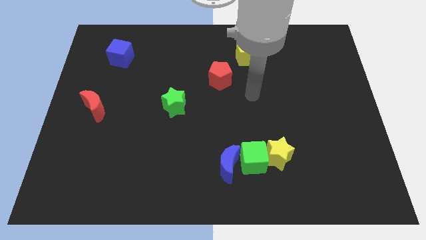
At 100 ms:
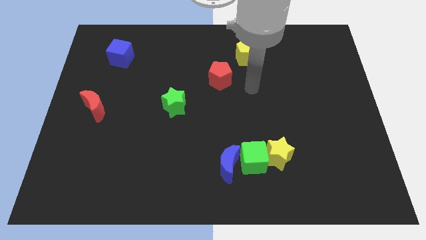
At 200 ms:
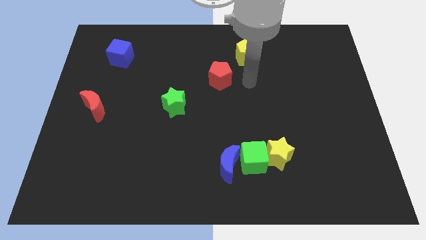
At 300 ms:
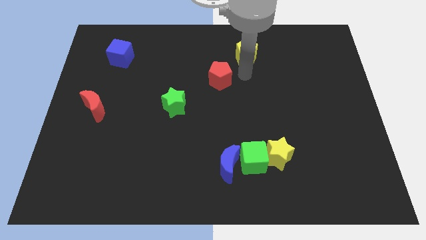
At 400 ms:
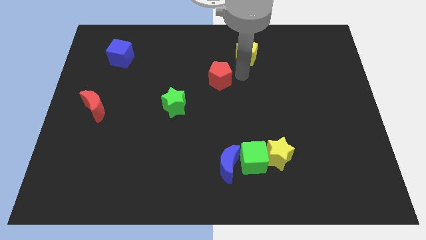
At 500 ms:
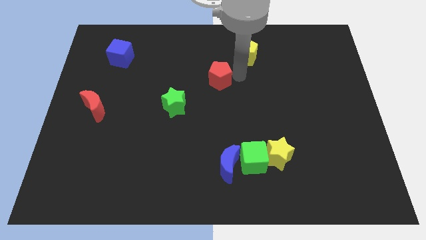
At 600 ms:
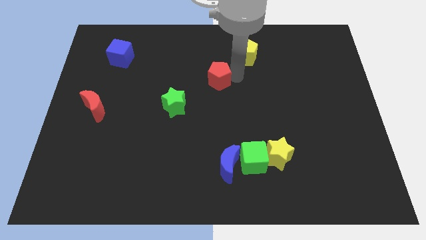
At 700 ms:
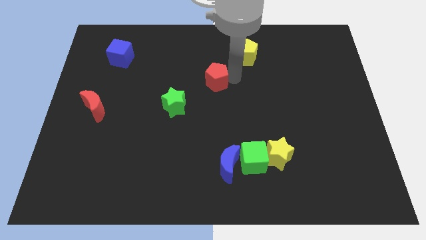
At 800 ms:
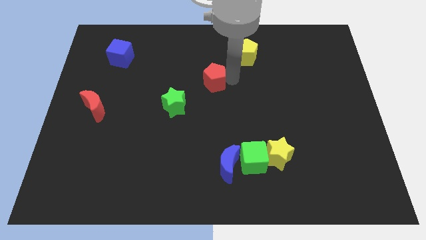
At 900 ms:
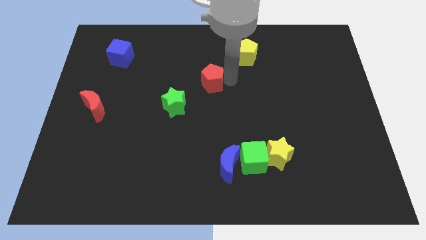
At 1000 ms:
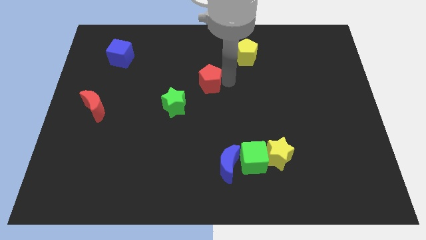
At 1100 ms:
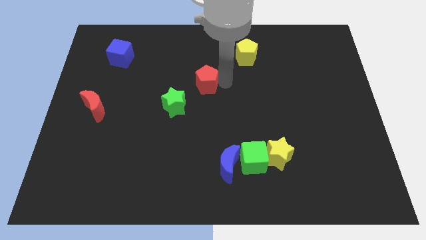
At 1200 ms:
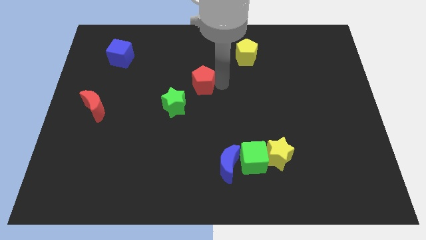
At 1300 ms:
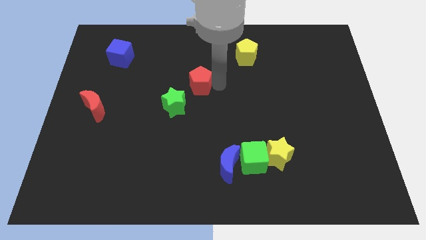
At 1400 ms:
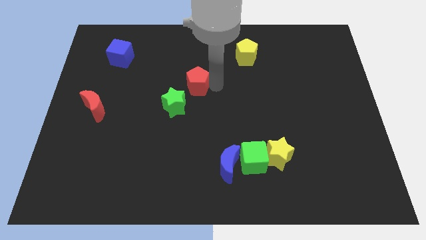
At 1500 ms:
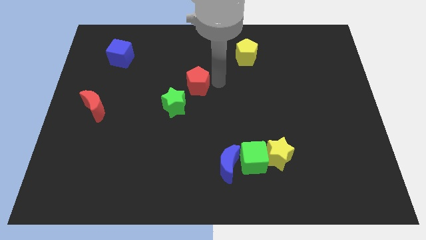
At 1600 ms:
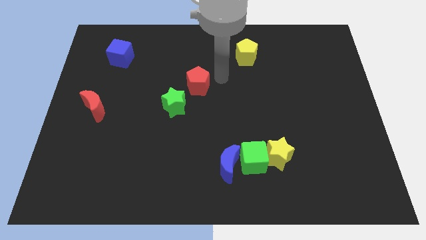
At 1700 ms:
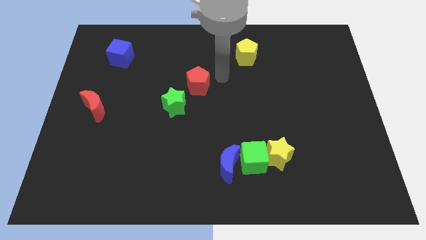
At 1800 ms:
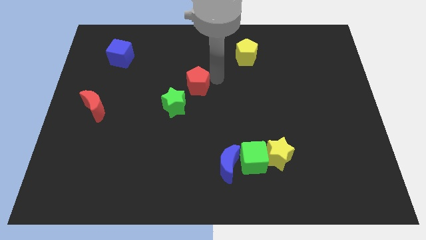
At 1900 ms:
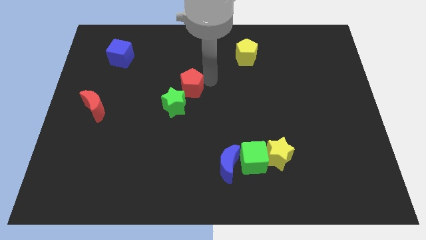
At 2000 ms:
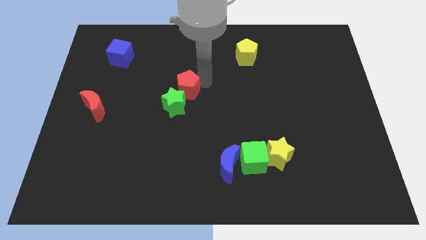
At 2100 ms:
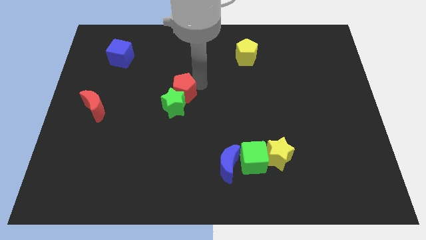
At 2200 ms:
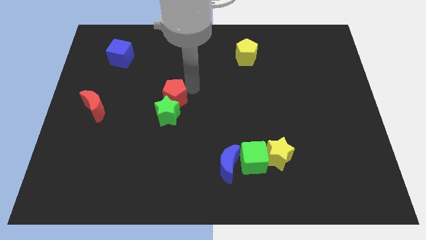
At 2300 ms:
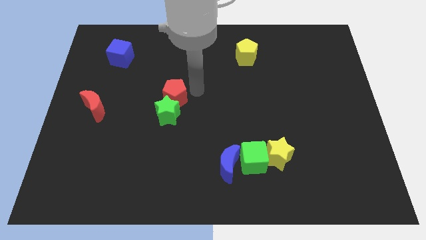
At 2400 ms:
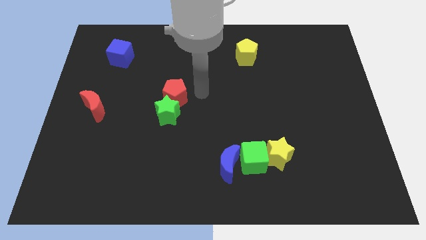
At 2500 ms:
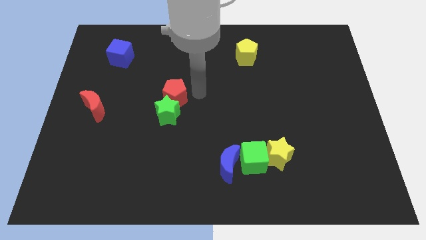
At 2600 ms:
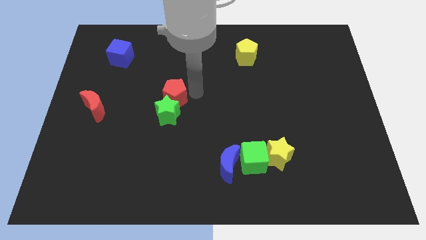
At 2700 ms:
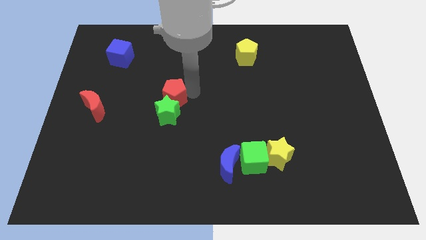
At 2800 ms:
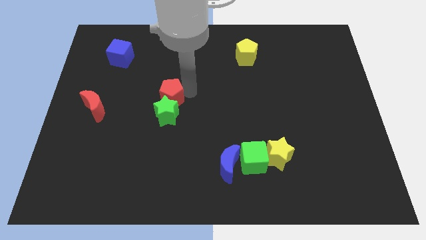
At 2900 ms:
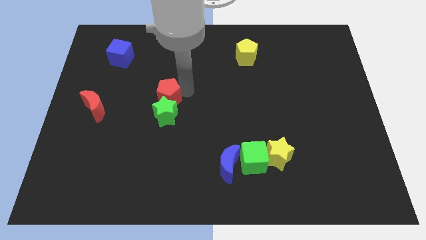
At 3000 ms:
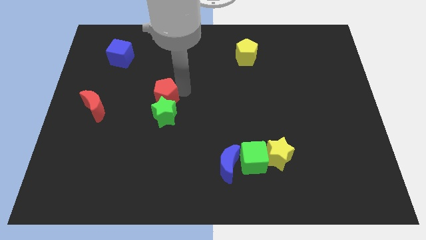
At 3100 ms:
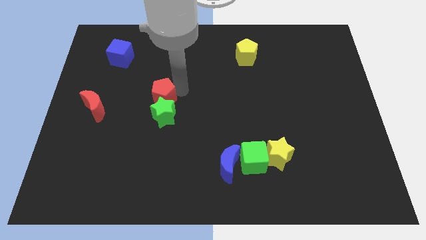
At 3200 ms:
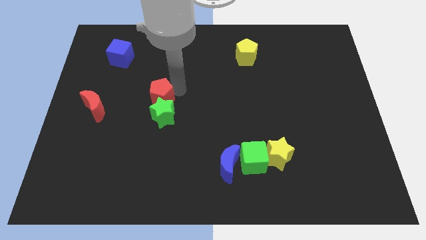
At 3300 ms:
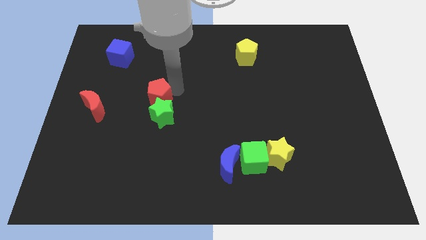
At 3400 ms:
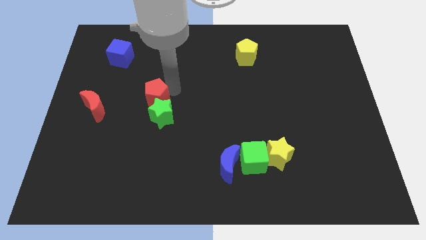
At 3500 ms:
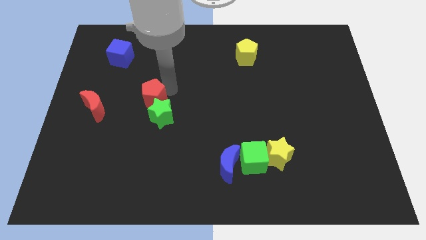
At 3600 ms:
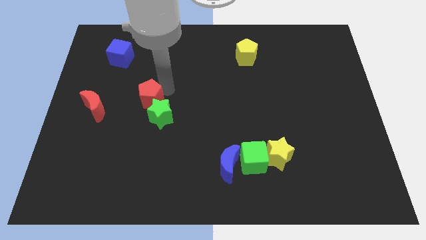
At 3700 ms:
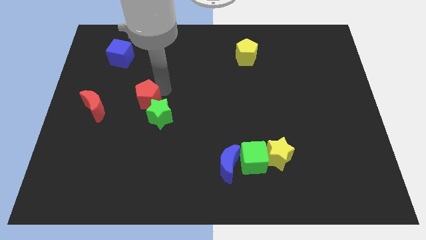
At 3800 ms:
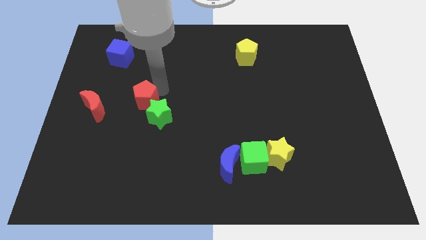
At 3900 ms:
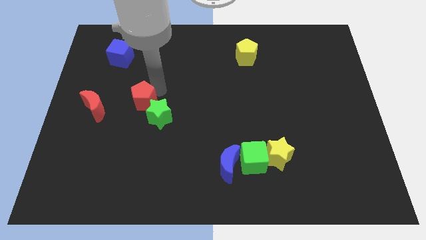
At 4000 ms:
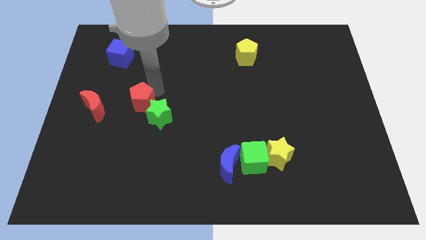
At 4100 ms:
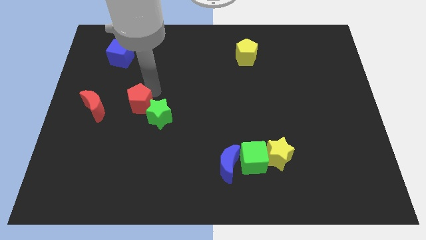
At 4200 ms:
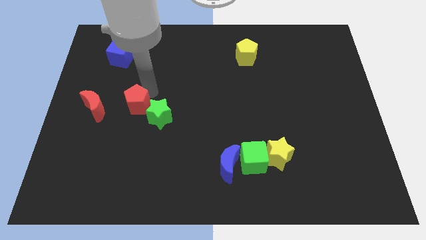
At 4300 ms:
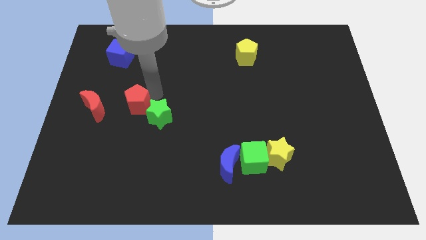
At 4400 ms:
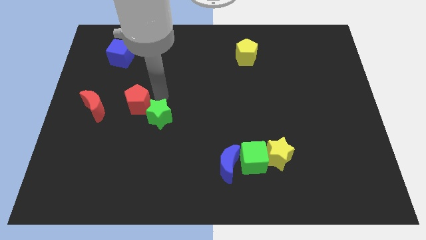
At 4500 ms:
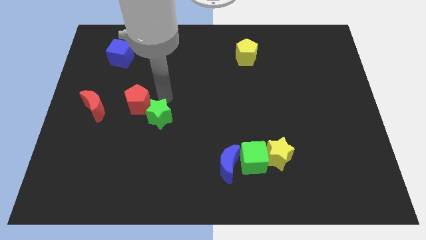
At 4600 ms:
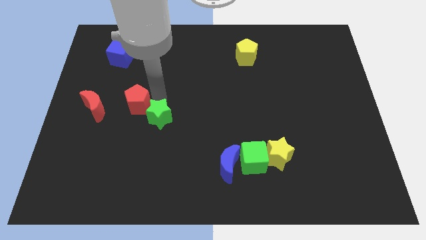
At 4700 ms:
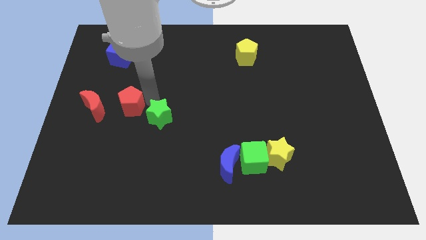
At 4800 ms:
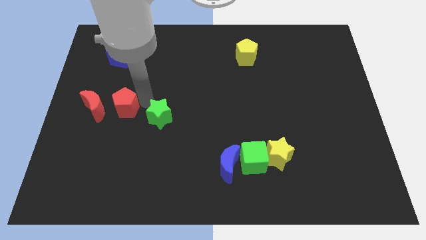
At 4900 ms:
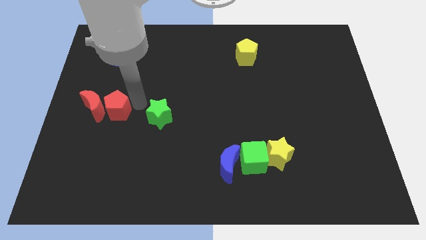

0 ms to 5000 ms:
put the red pentagon towards the red moon

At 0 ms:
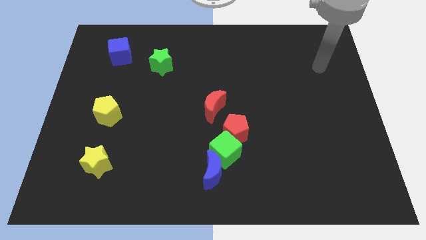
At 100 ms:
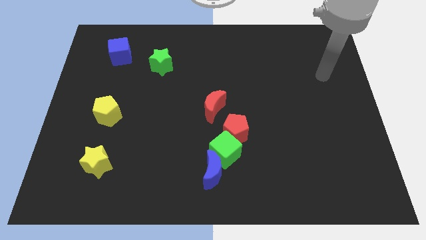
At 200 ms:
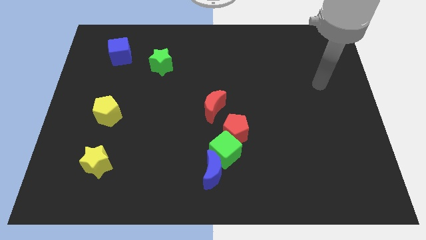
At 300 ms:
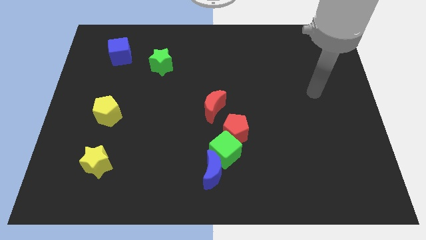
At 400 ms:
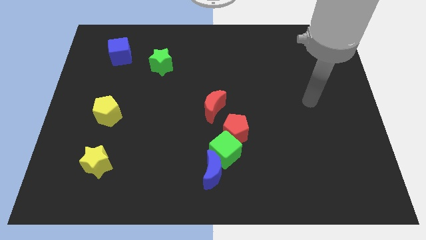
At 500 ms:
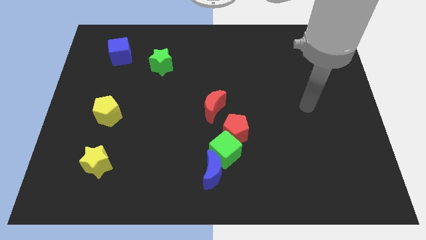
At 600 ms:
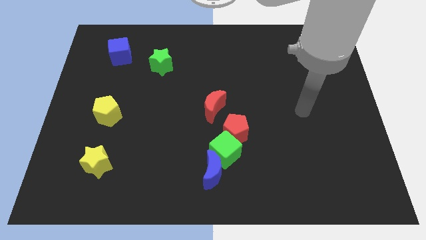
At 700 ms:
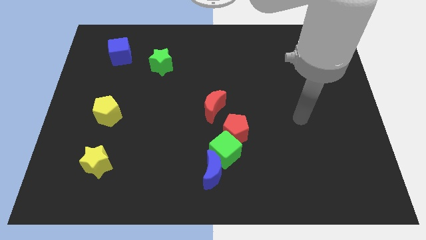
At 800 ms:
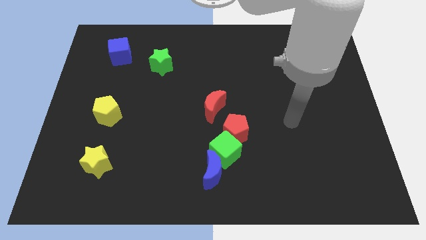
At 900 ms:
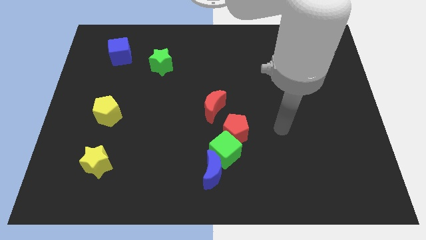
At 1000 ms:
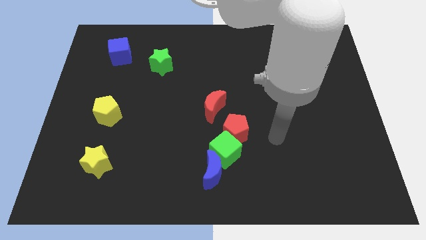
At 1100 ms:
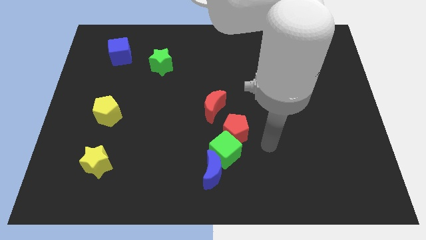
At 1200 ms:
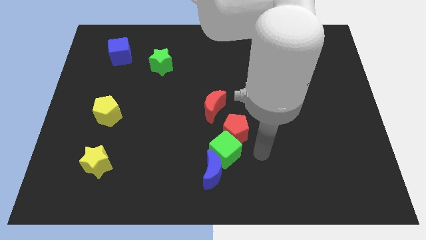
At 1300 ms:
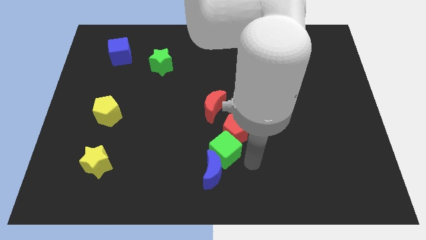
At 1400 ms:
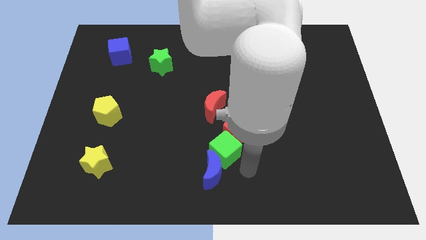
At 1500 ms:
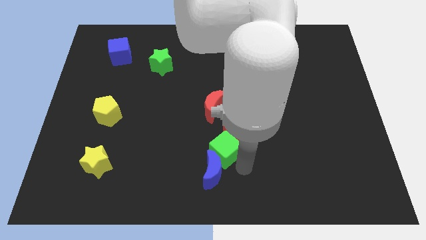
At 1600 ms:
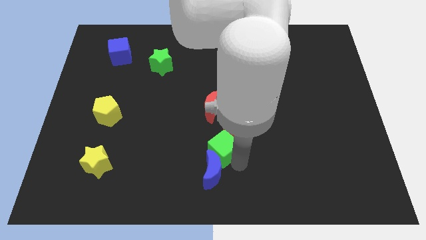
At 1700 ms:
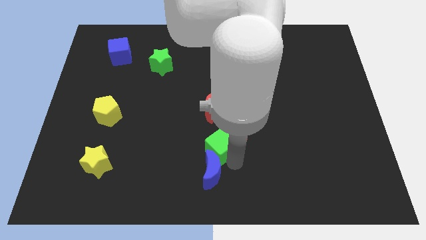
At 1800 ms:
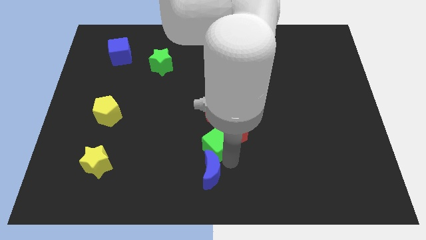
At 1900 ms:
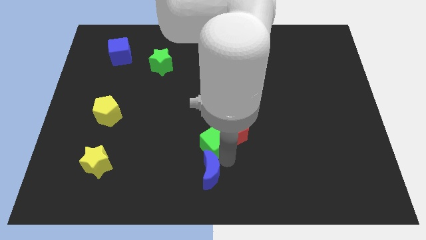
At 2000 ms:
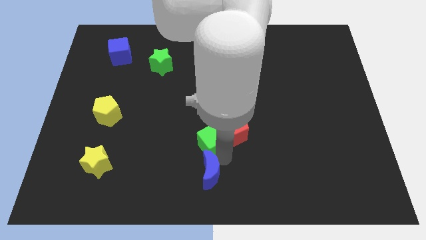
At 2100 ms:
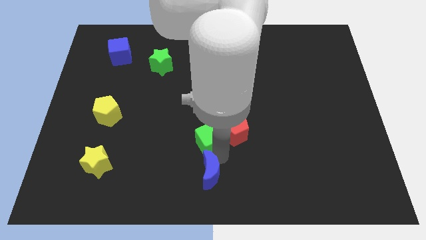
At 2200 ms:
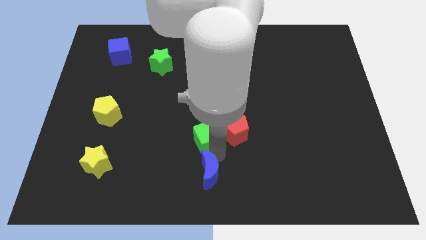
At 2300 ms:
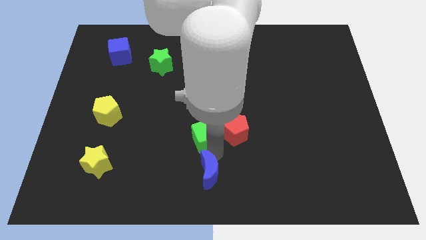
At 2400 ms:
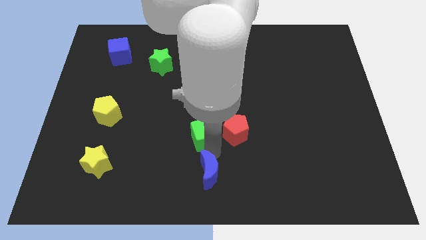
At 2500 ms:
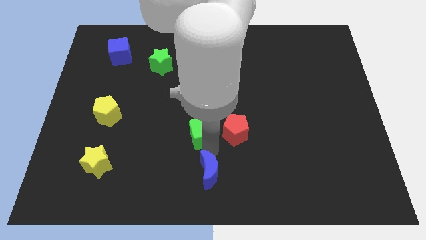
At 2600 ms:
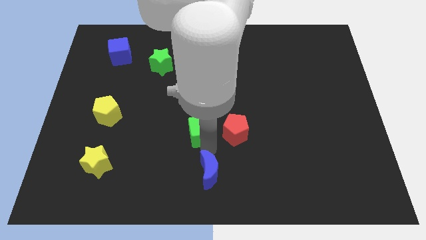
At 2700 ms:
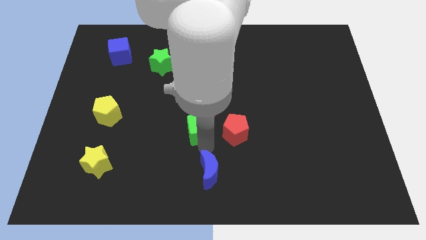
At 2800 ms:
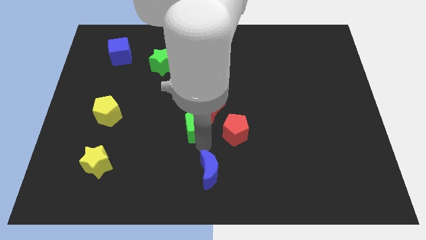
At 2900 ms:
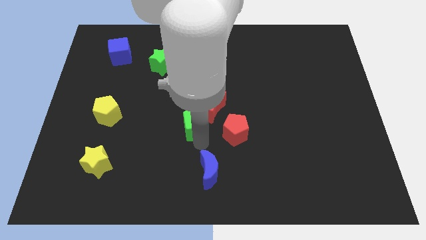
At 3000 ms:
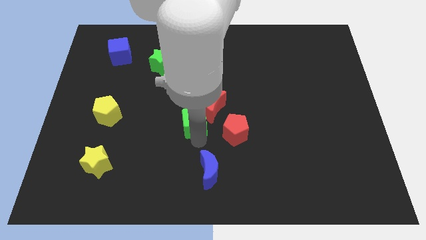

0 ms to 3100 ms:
move the green cube close to the red moon
